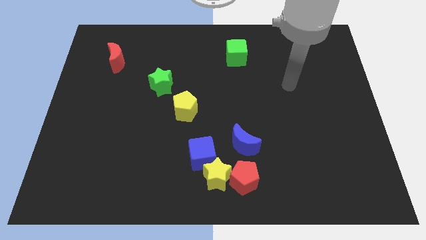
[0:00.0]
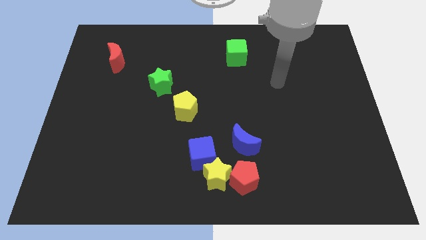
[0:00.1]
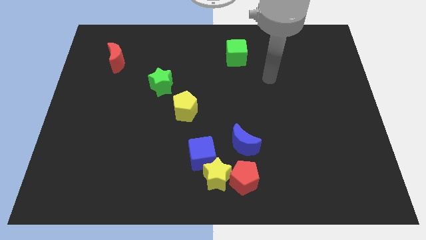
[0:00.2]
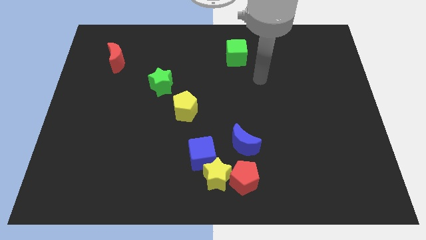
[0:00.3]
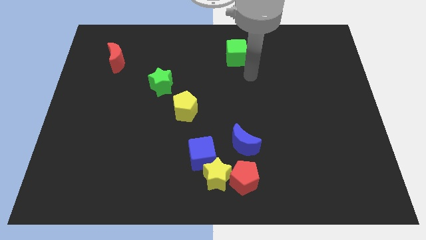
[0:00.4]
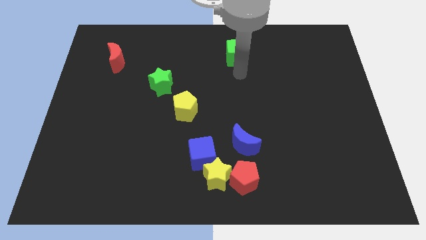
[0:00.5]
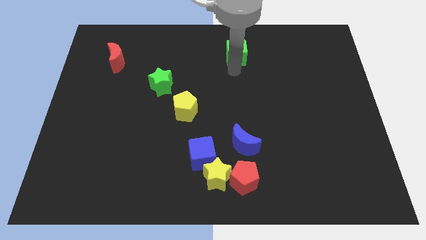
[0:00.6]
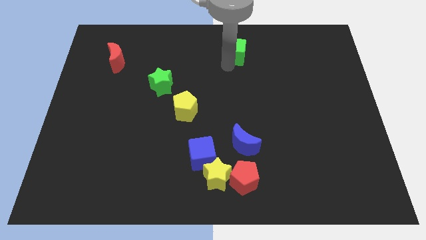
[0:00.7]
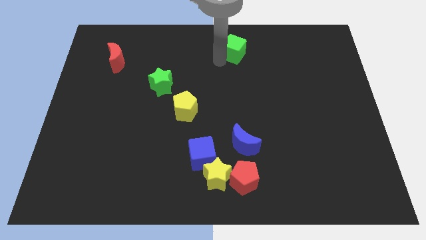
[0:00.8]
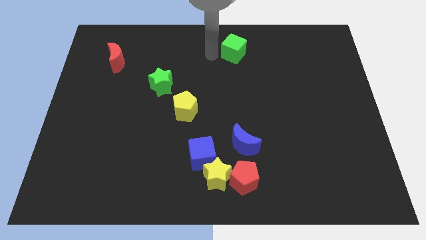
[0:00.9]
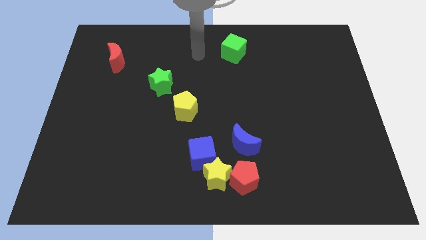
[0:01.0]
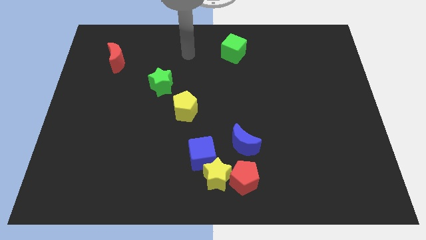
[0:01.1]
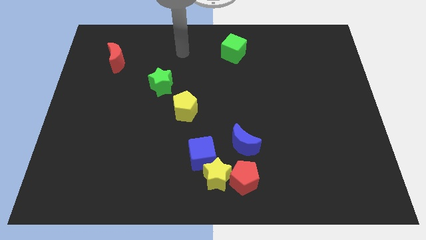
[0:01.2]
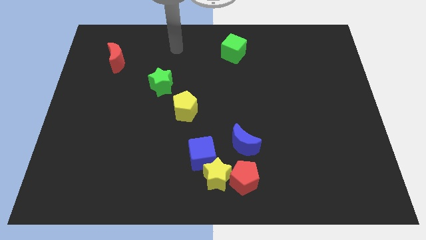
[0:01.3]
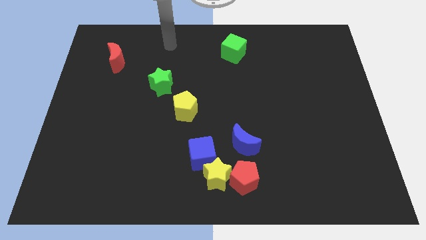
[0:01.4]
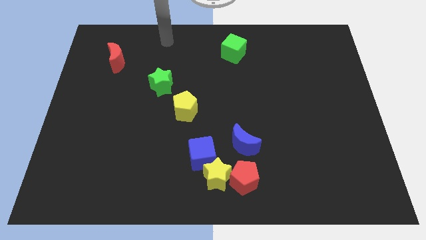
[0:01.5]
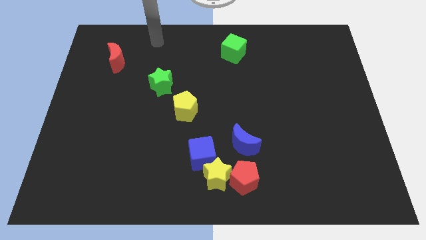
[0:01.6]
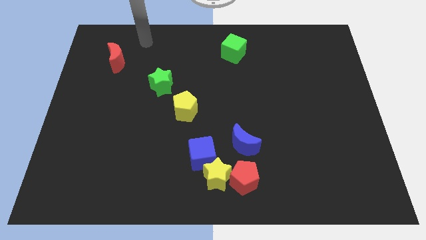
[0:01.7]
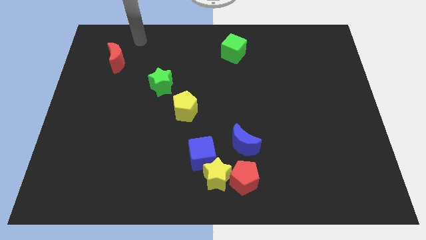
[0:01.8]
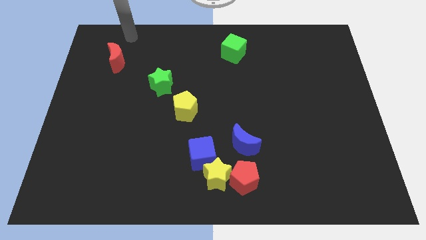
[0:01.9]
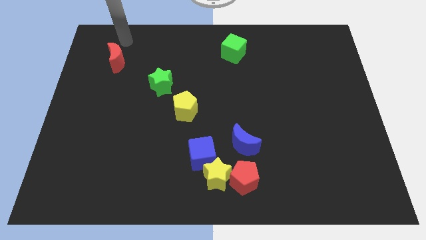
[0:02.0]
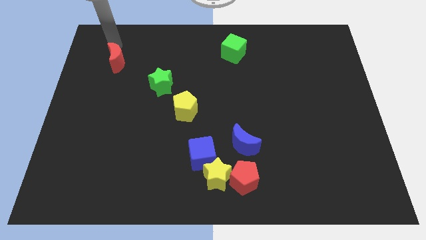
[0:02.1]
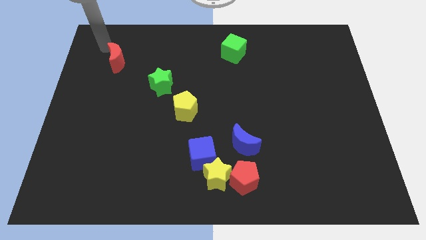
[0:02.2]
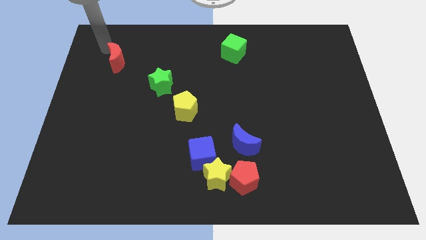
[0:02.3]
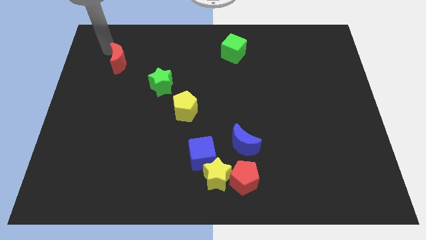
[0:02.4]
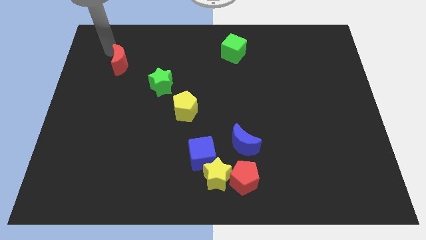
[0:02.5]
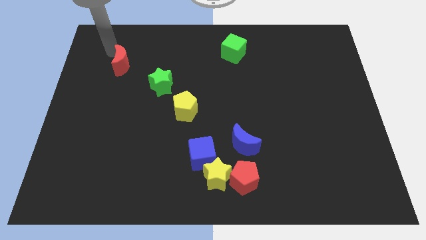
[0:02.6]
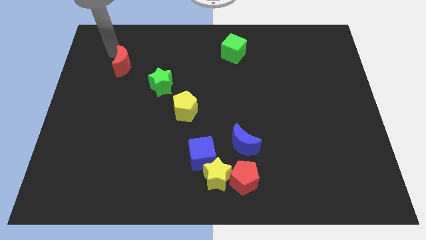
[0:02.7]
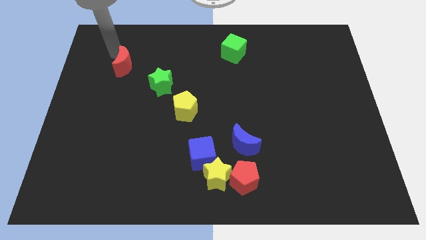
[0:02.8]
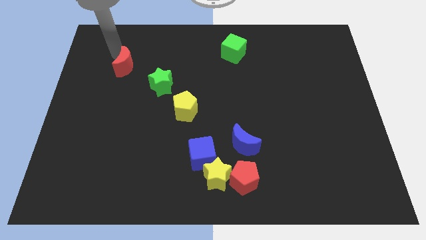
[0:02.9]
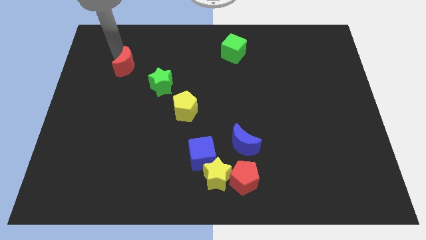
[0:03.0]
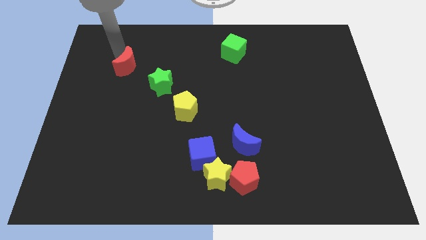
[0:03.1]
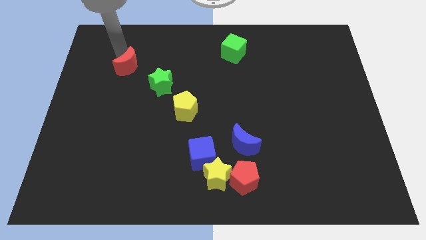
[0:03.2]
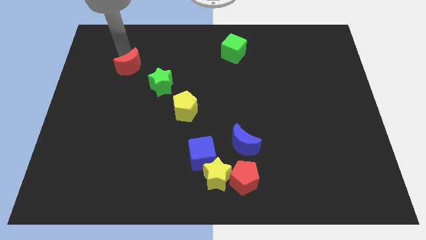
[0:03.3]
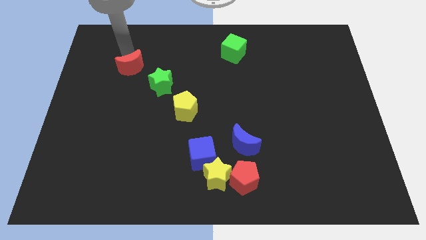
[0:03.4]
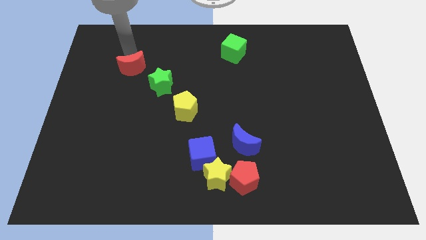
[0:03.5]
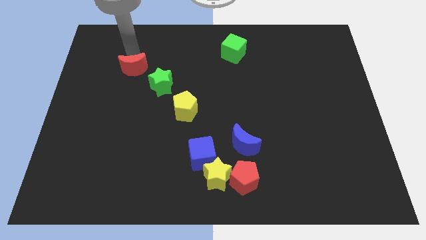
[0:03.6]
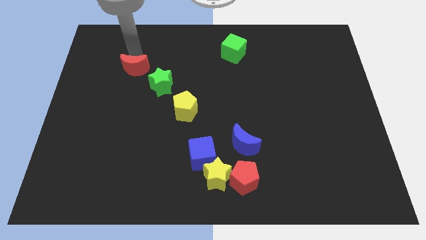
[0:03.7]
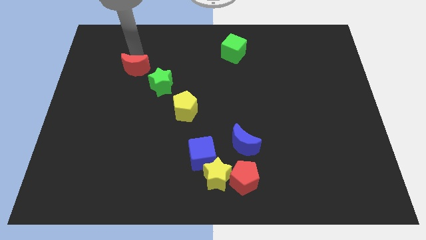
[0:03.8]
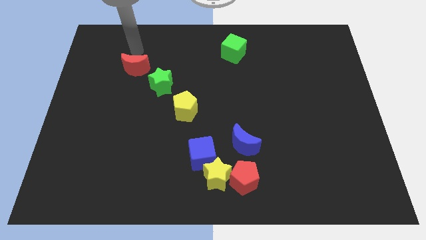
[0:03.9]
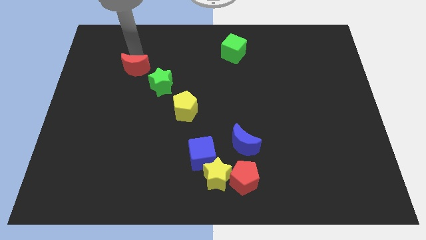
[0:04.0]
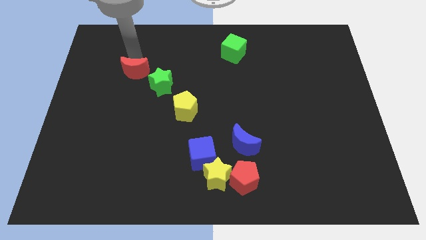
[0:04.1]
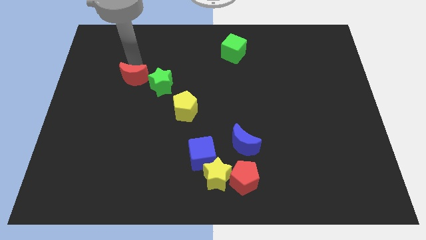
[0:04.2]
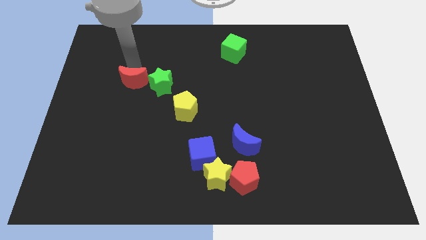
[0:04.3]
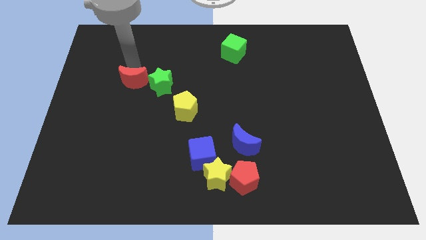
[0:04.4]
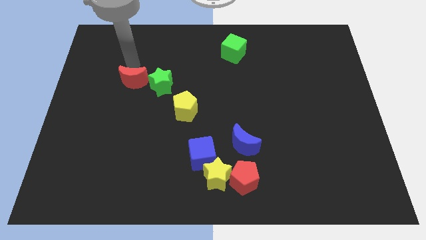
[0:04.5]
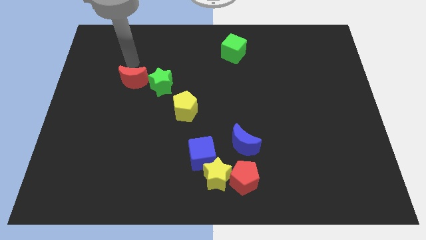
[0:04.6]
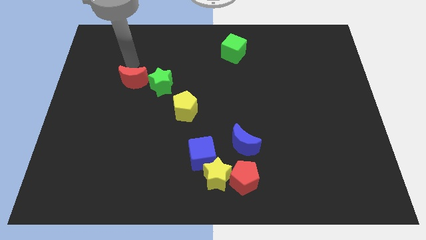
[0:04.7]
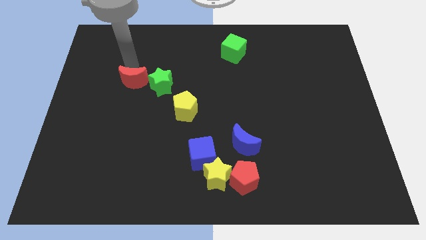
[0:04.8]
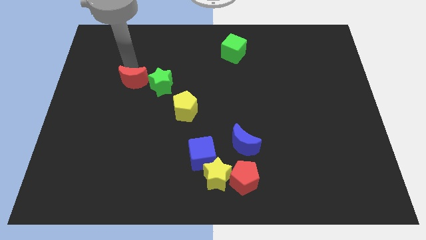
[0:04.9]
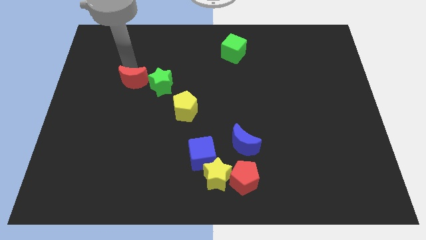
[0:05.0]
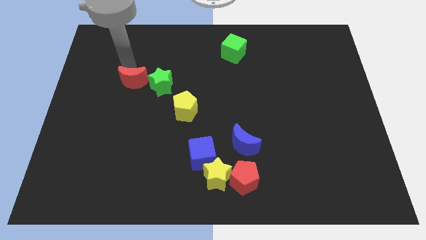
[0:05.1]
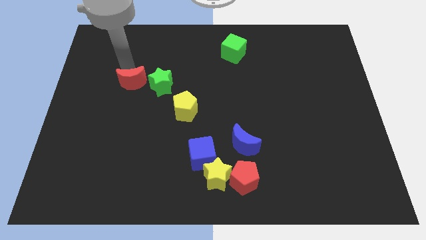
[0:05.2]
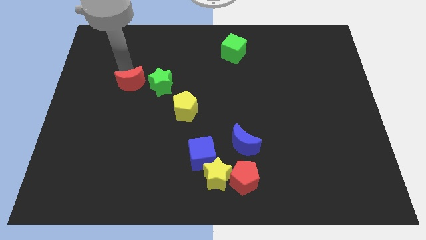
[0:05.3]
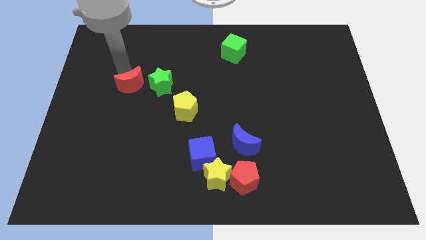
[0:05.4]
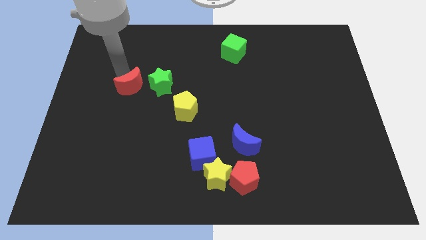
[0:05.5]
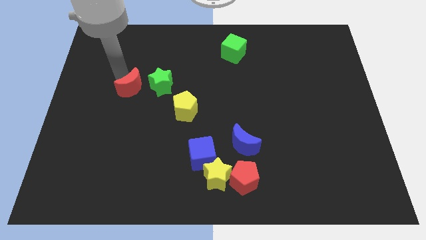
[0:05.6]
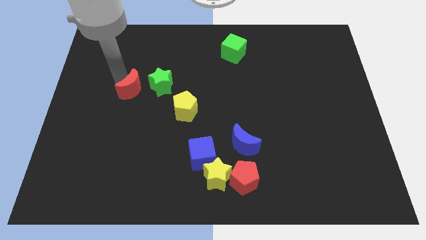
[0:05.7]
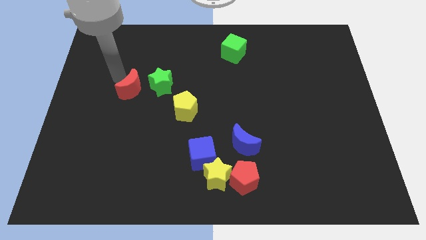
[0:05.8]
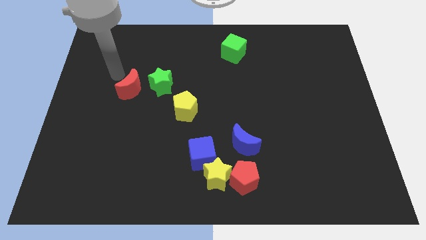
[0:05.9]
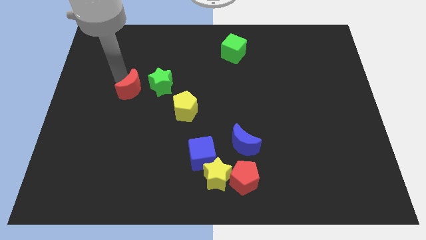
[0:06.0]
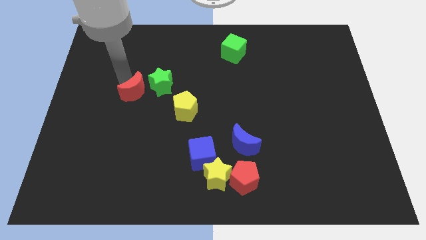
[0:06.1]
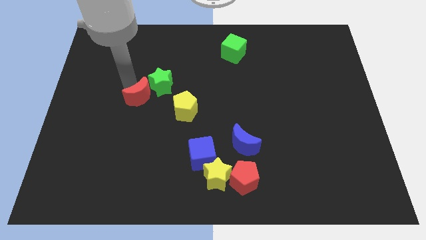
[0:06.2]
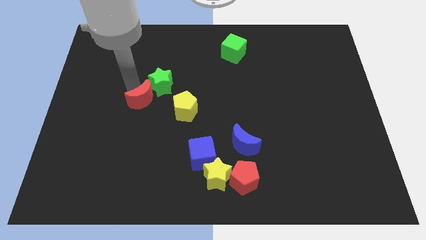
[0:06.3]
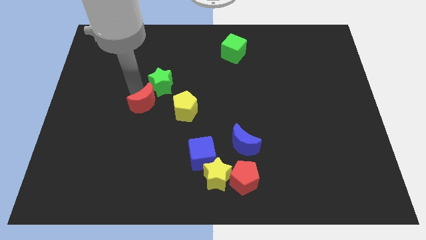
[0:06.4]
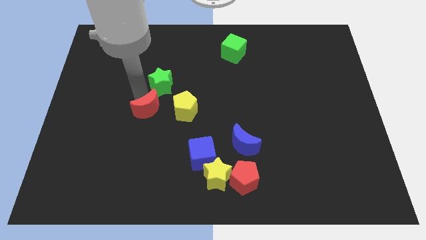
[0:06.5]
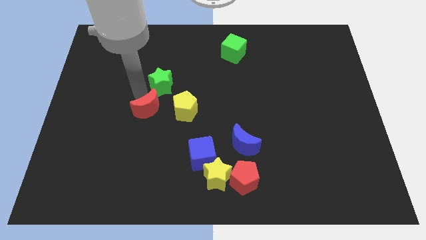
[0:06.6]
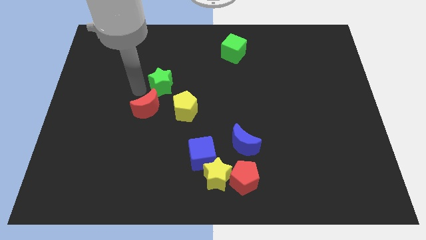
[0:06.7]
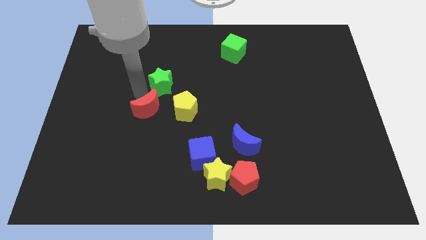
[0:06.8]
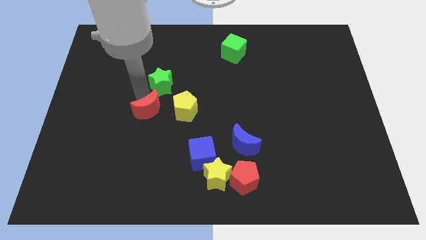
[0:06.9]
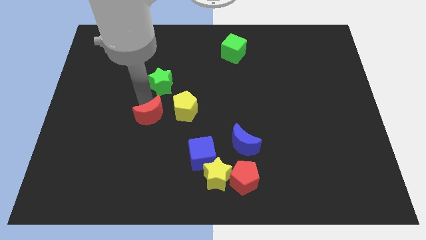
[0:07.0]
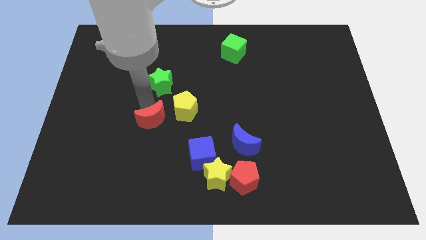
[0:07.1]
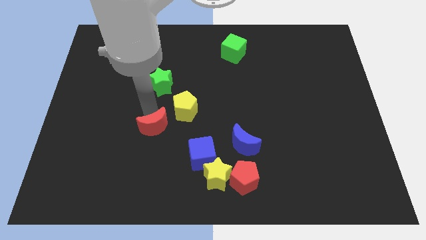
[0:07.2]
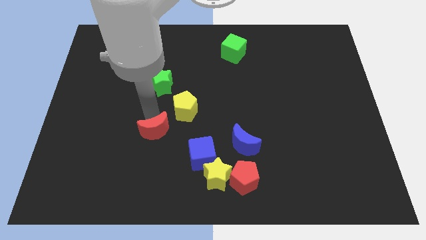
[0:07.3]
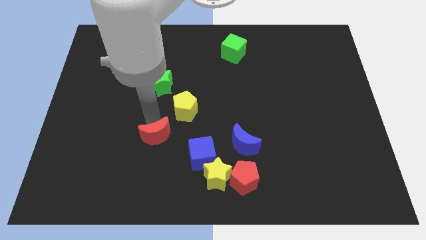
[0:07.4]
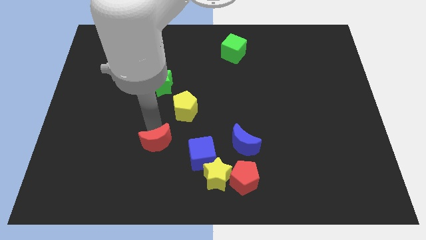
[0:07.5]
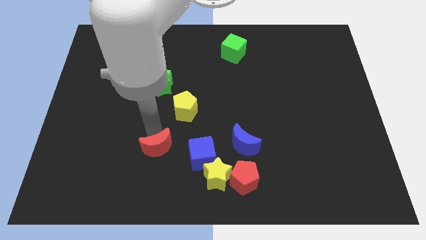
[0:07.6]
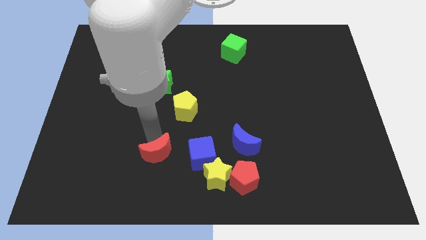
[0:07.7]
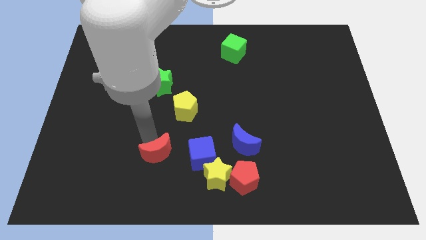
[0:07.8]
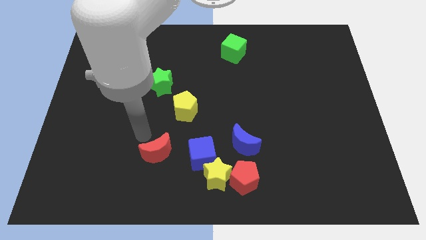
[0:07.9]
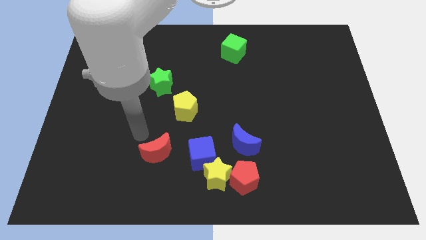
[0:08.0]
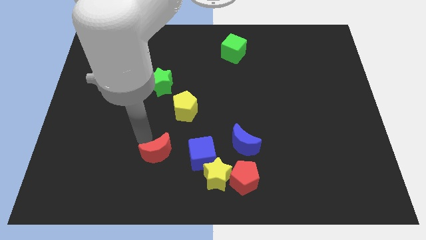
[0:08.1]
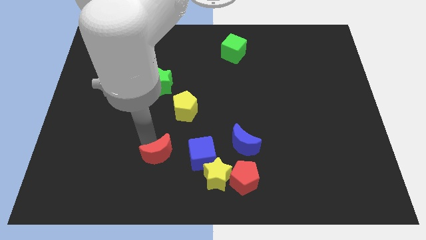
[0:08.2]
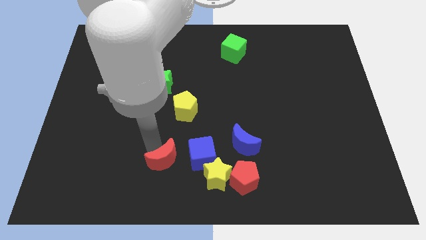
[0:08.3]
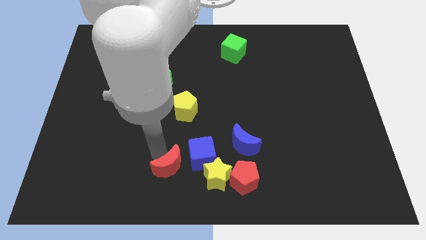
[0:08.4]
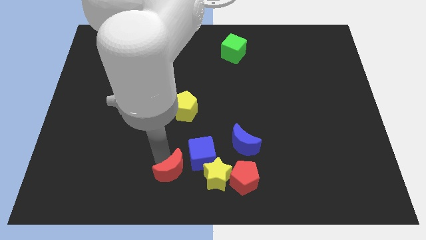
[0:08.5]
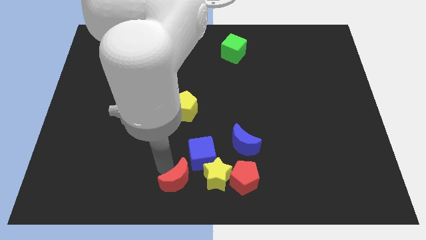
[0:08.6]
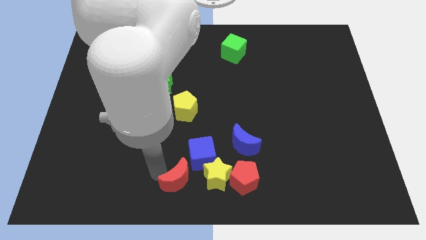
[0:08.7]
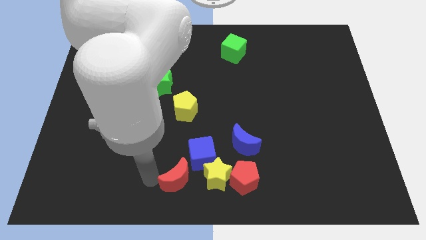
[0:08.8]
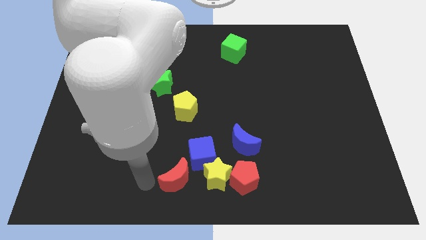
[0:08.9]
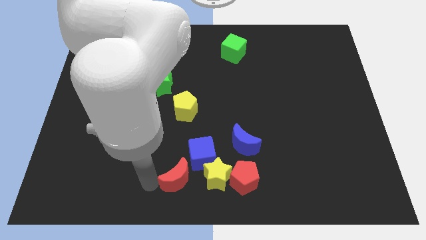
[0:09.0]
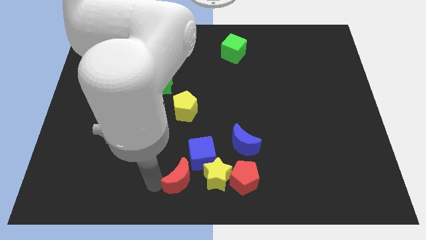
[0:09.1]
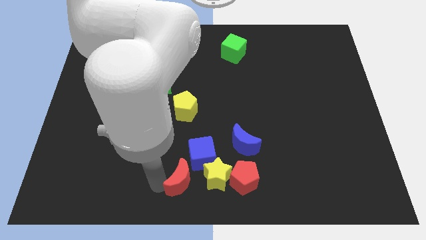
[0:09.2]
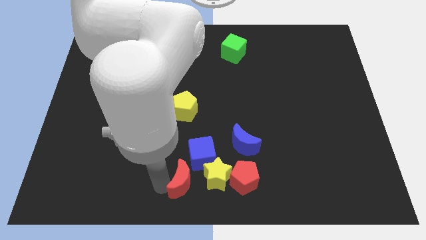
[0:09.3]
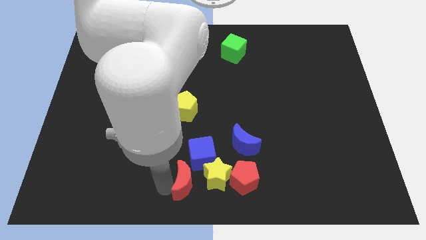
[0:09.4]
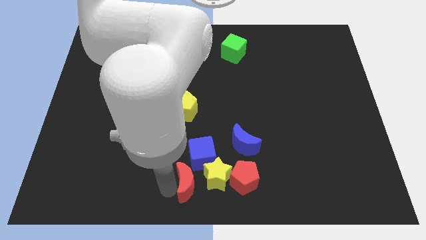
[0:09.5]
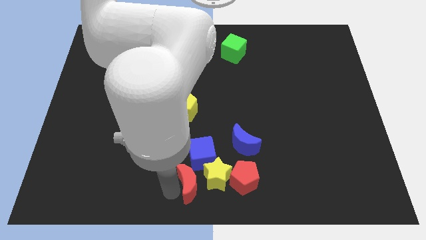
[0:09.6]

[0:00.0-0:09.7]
push the red moon towards the yellow star
